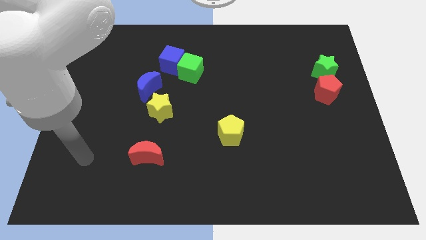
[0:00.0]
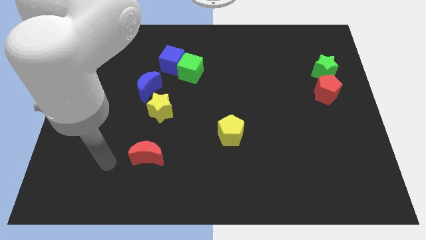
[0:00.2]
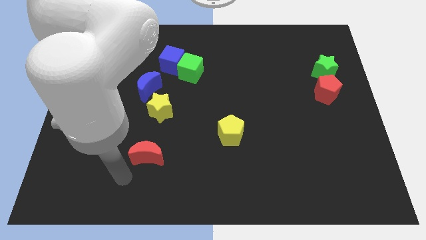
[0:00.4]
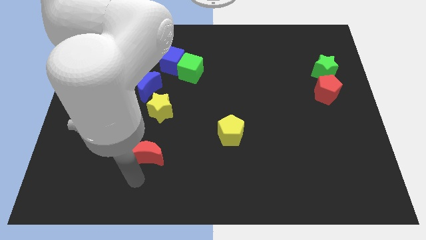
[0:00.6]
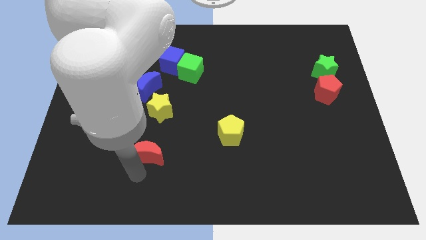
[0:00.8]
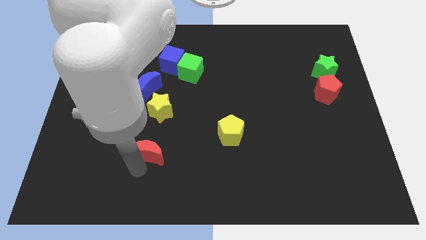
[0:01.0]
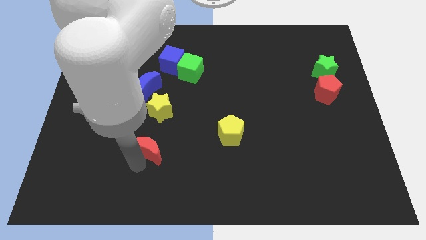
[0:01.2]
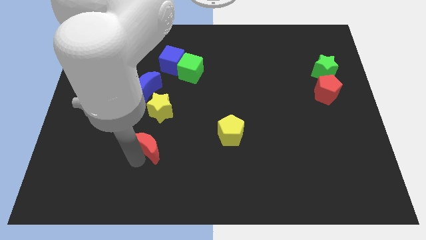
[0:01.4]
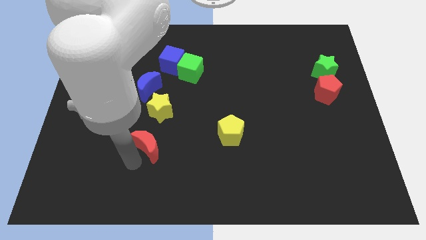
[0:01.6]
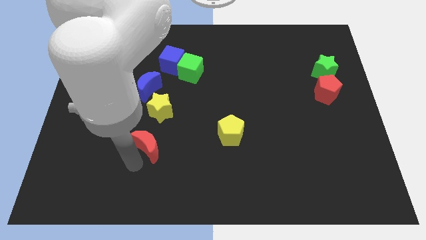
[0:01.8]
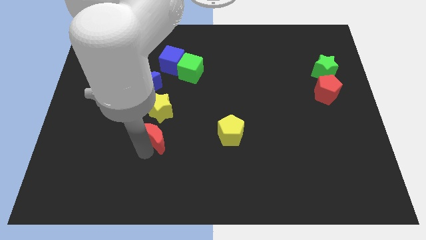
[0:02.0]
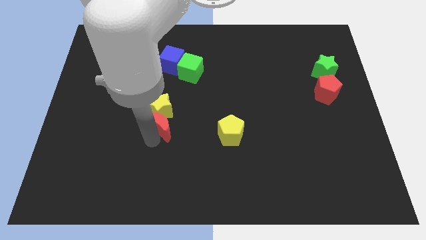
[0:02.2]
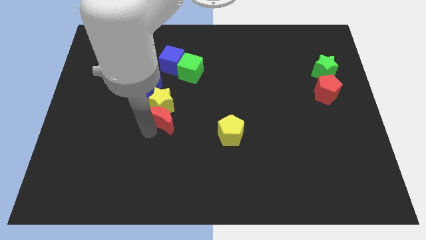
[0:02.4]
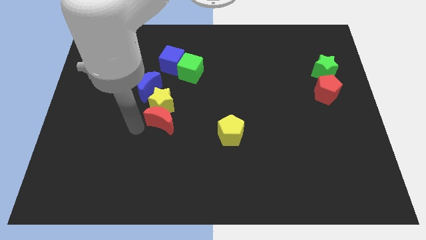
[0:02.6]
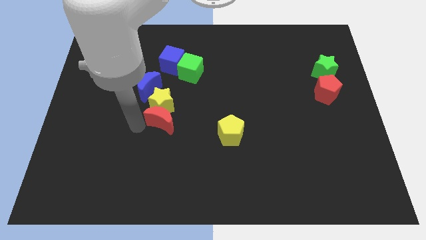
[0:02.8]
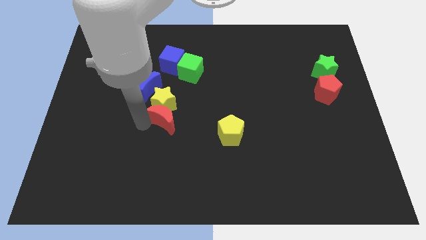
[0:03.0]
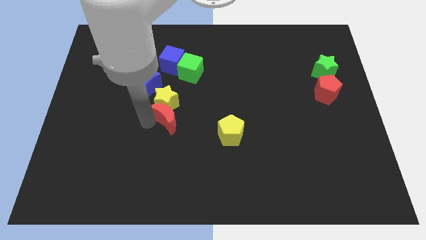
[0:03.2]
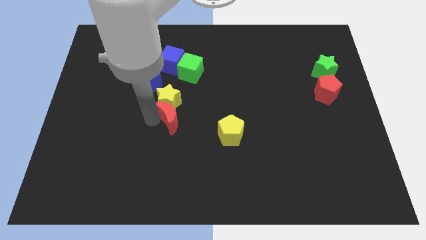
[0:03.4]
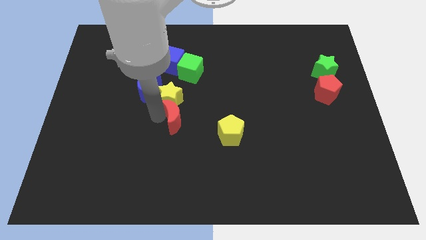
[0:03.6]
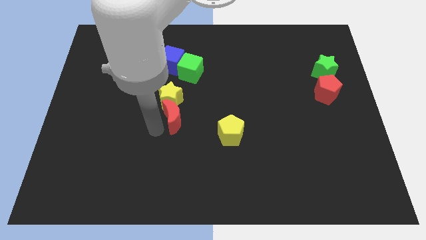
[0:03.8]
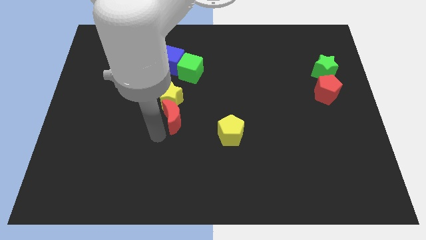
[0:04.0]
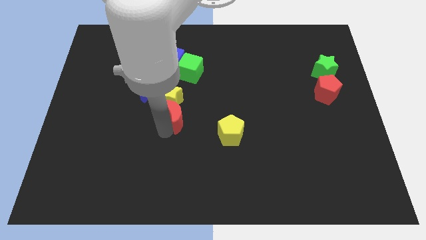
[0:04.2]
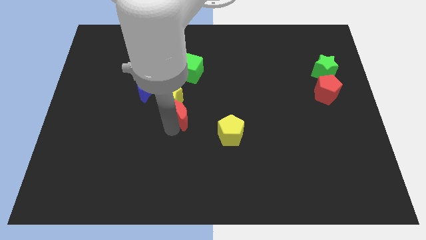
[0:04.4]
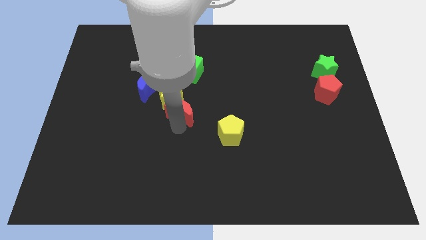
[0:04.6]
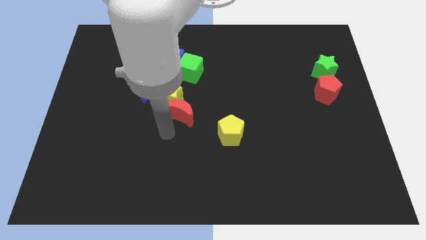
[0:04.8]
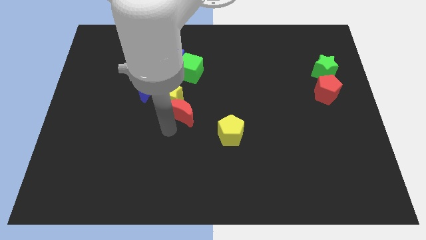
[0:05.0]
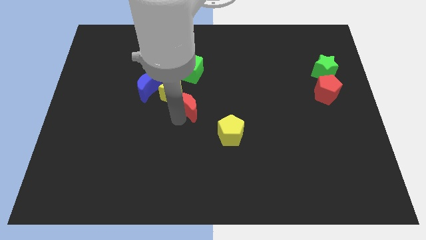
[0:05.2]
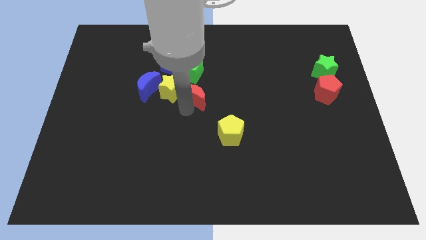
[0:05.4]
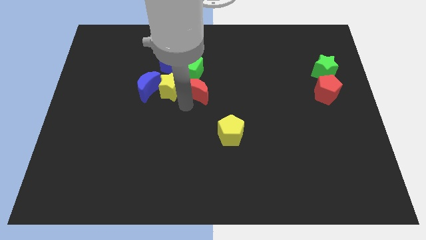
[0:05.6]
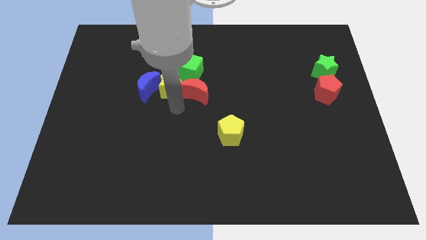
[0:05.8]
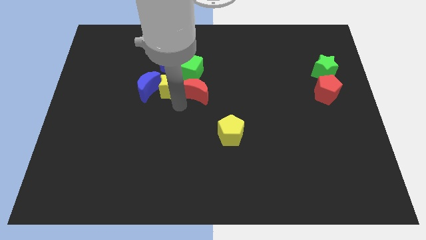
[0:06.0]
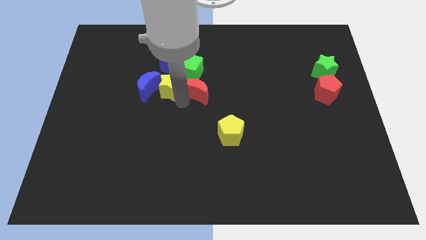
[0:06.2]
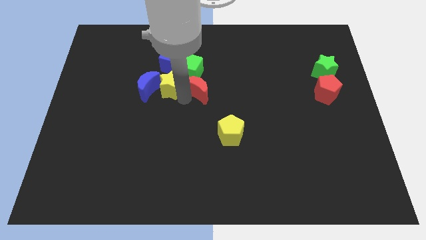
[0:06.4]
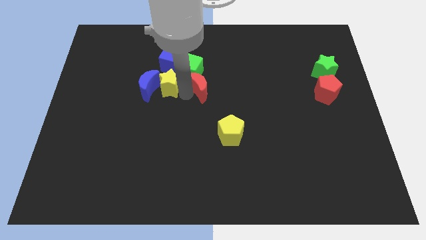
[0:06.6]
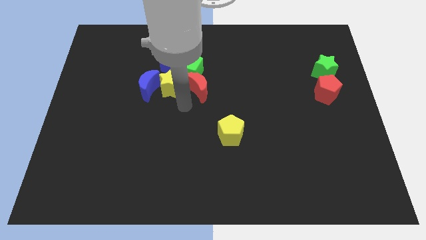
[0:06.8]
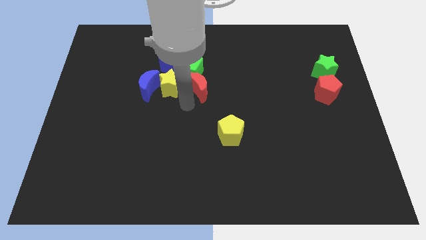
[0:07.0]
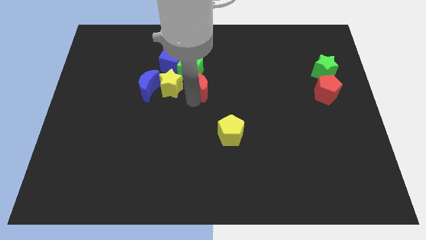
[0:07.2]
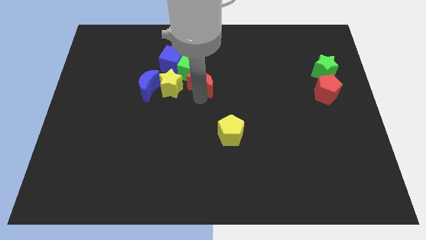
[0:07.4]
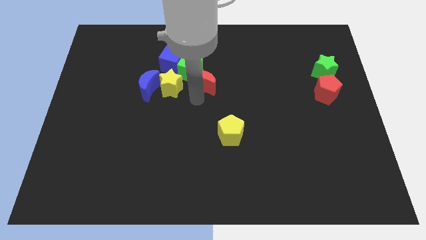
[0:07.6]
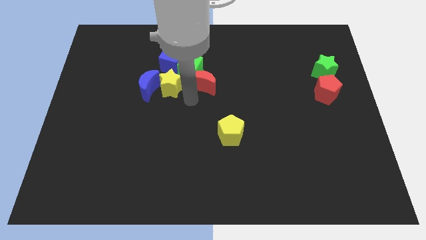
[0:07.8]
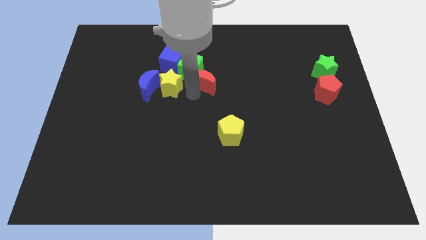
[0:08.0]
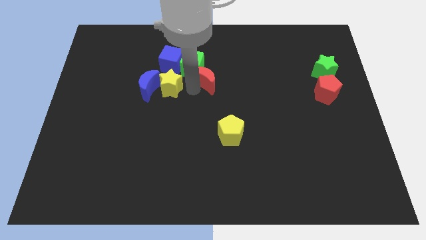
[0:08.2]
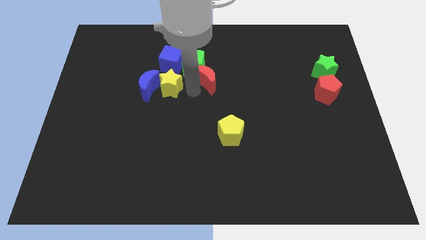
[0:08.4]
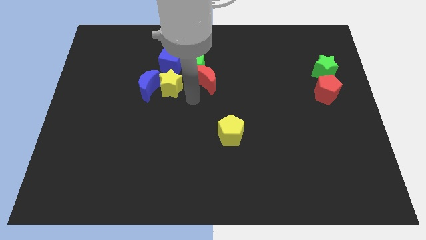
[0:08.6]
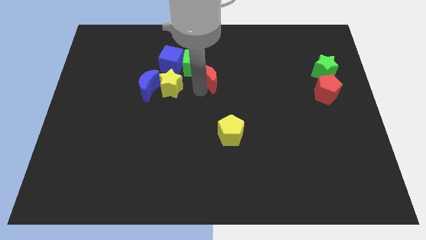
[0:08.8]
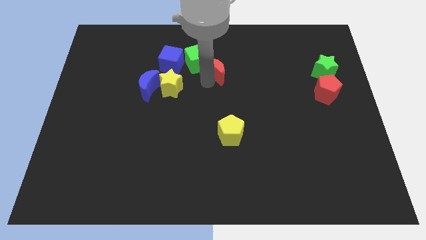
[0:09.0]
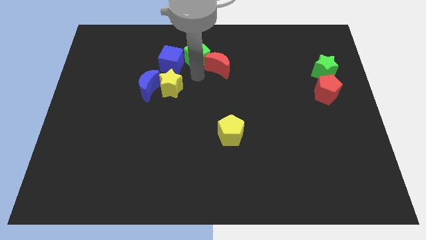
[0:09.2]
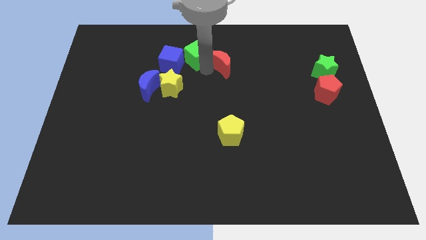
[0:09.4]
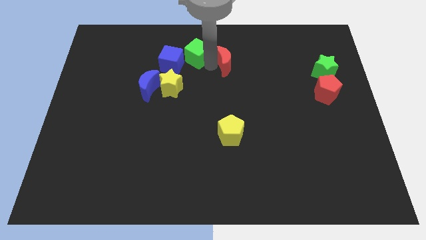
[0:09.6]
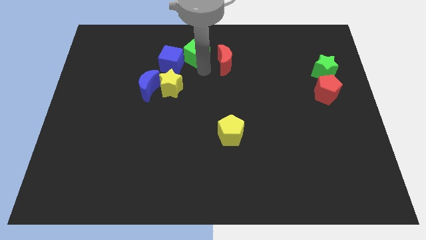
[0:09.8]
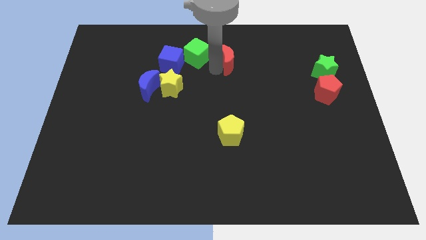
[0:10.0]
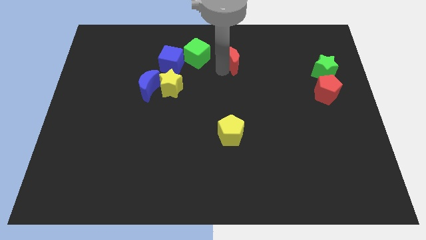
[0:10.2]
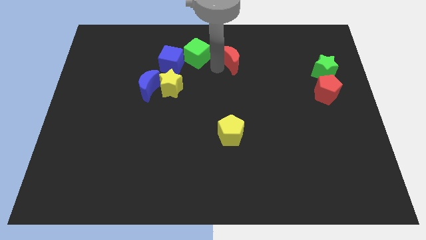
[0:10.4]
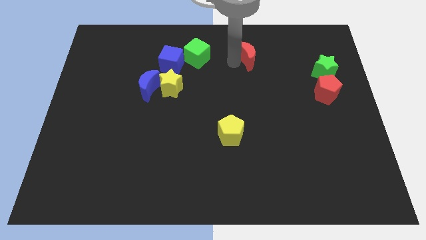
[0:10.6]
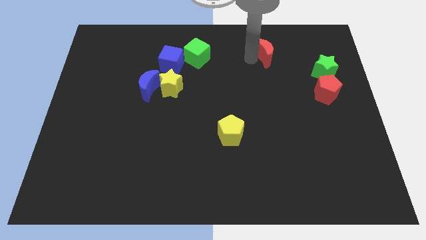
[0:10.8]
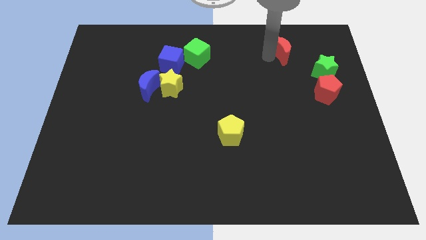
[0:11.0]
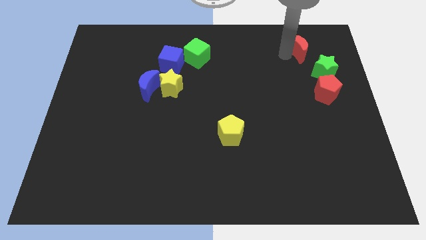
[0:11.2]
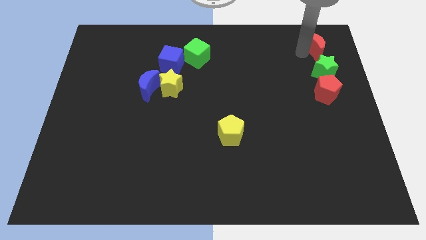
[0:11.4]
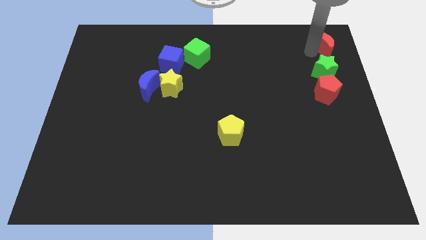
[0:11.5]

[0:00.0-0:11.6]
push the red moon to the top right
